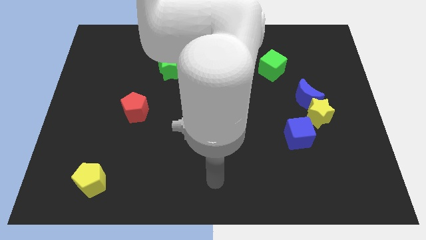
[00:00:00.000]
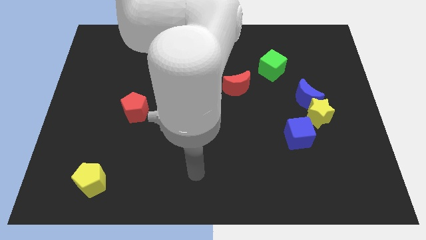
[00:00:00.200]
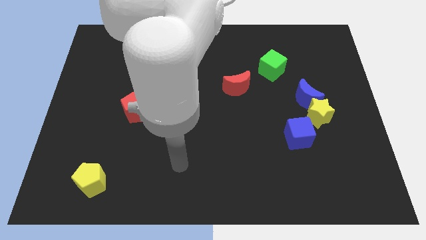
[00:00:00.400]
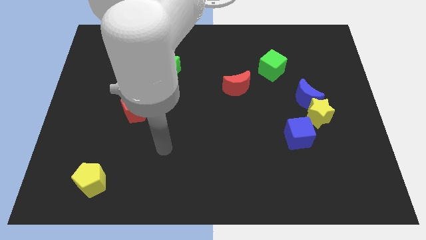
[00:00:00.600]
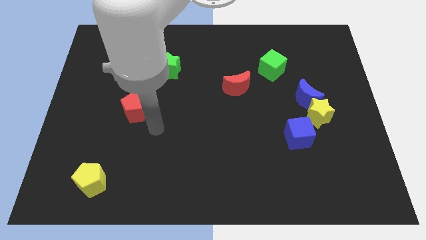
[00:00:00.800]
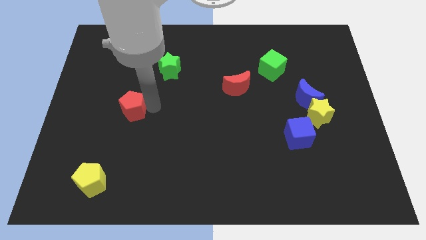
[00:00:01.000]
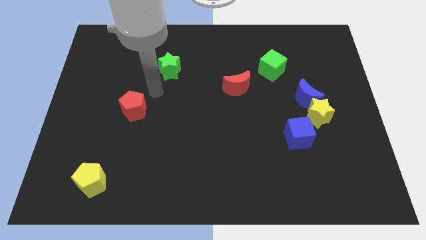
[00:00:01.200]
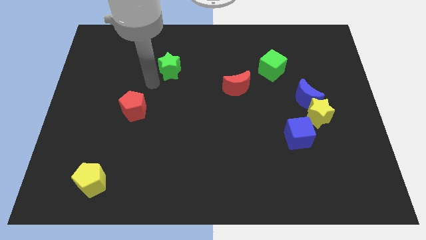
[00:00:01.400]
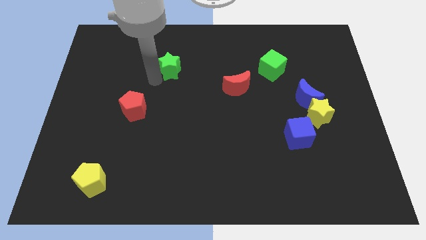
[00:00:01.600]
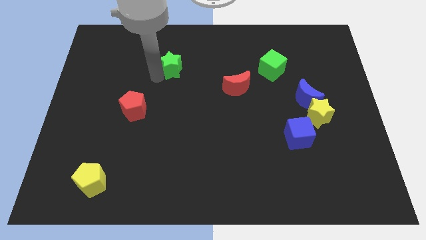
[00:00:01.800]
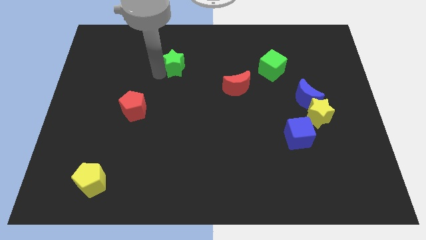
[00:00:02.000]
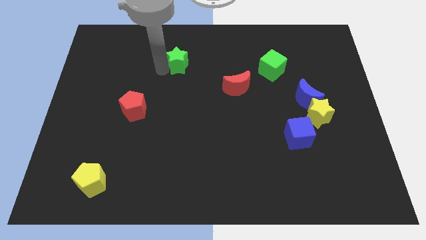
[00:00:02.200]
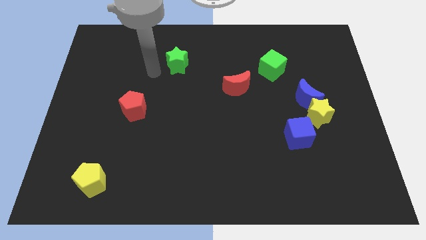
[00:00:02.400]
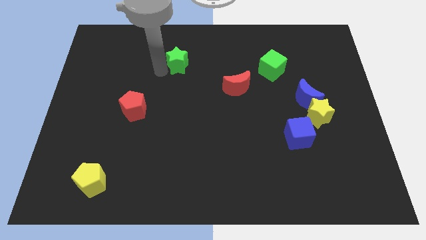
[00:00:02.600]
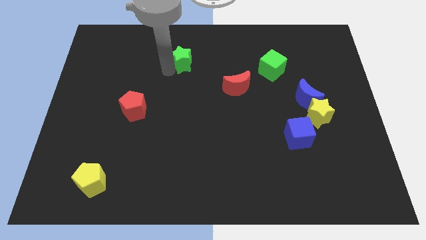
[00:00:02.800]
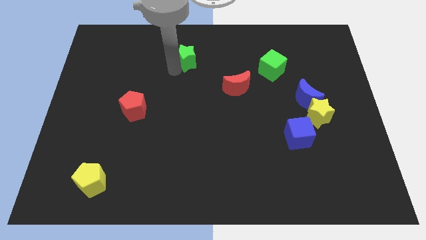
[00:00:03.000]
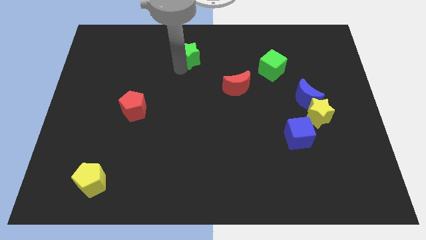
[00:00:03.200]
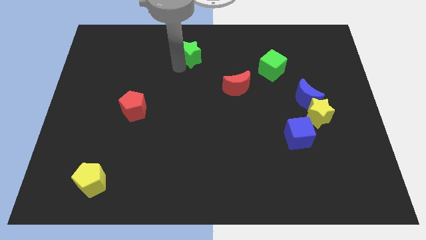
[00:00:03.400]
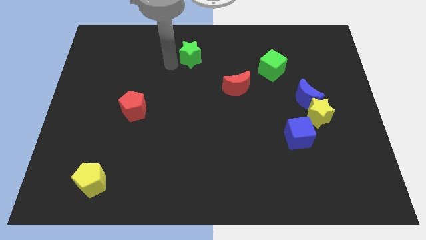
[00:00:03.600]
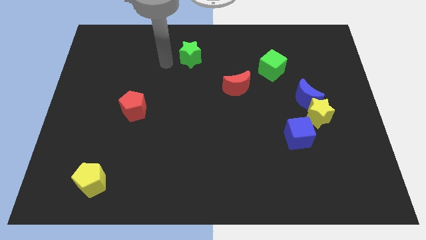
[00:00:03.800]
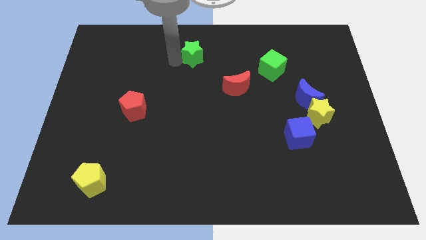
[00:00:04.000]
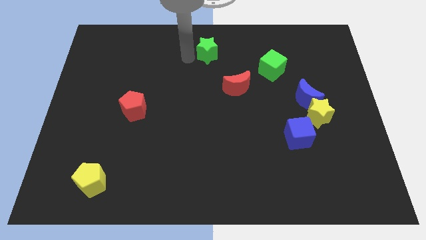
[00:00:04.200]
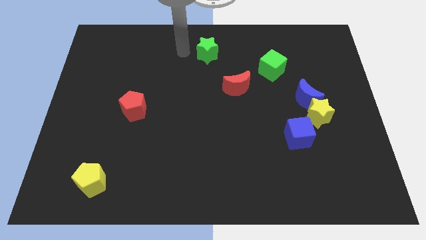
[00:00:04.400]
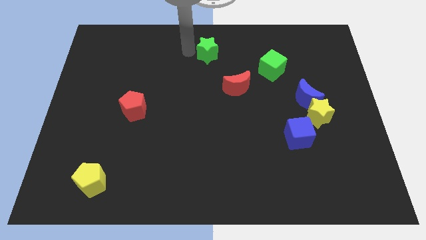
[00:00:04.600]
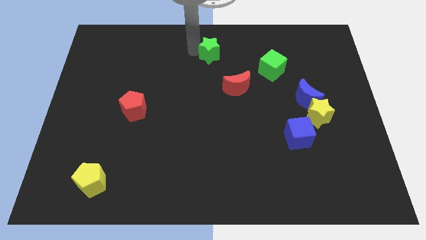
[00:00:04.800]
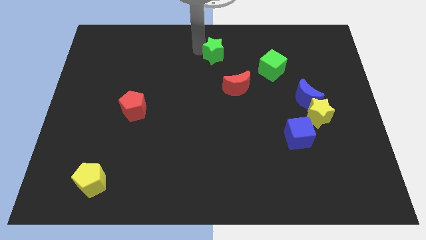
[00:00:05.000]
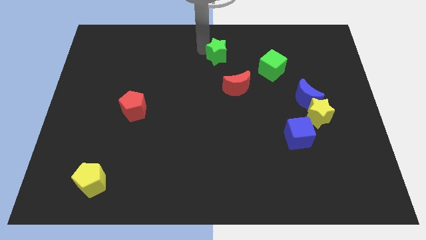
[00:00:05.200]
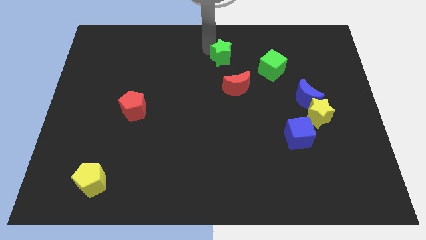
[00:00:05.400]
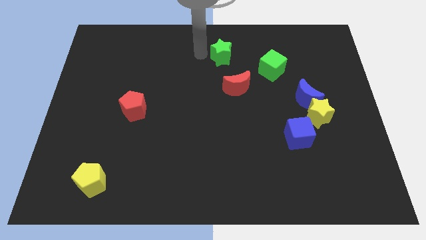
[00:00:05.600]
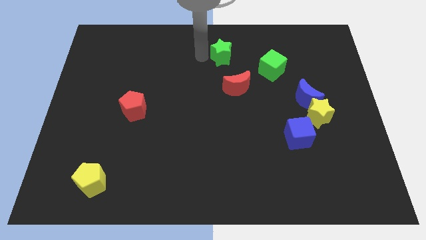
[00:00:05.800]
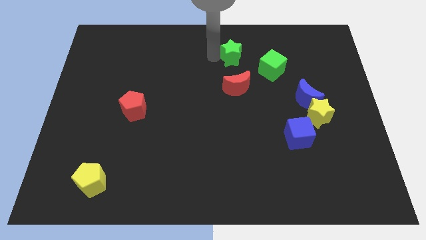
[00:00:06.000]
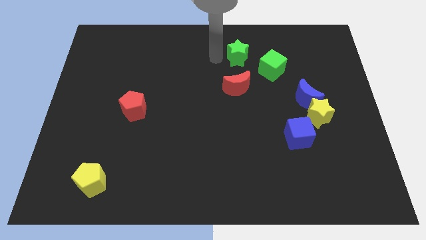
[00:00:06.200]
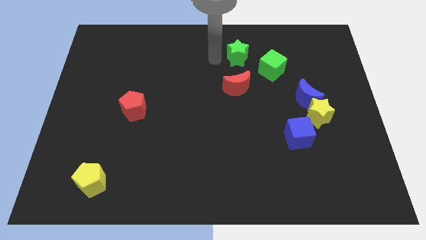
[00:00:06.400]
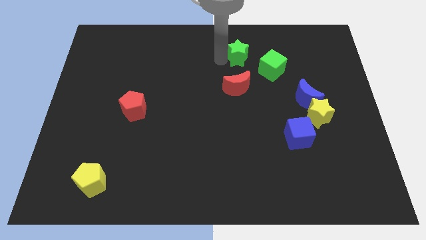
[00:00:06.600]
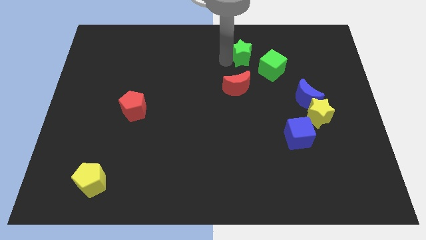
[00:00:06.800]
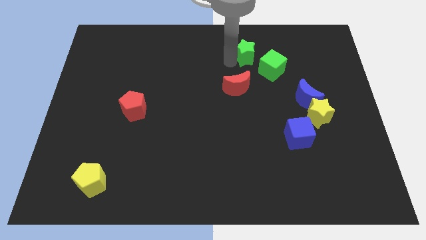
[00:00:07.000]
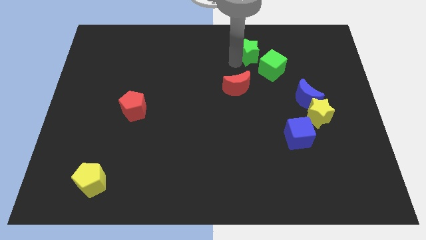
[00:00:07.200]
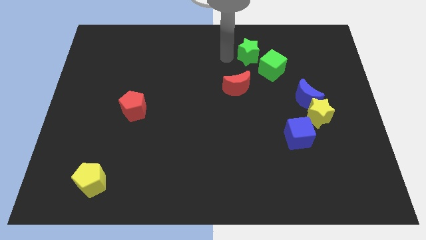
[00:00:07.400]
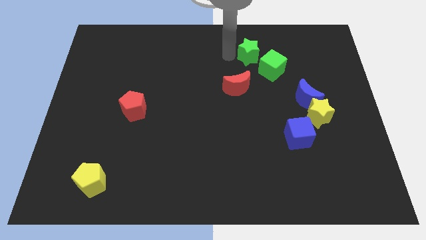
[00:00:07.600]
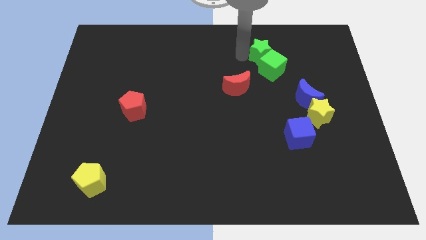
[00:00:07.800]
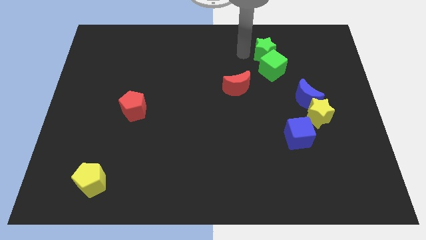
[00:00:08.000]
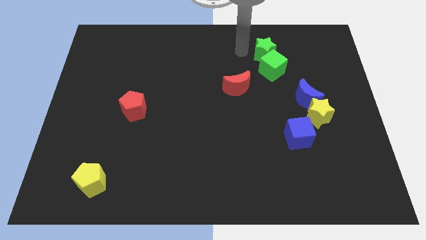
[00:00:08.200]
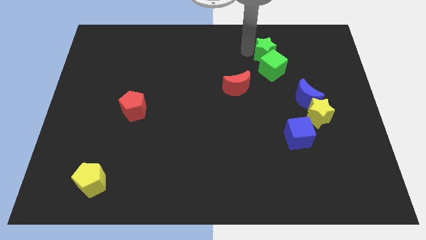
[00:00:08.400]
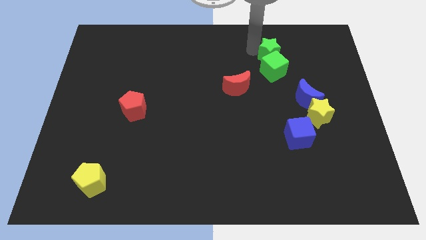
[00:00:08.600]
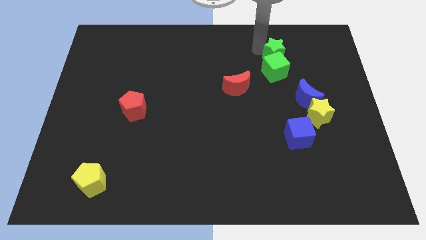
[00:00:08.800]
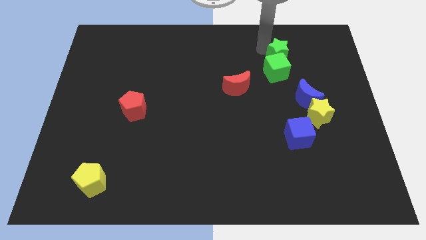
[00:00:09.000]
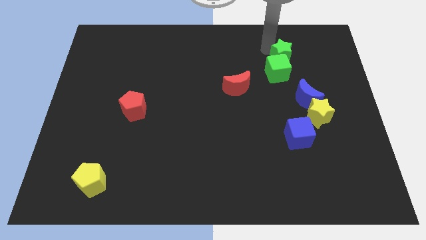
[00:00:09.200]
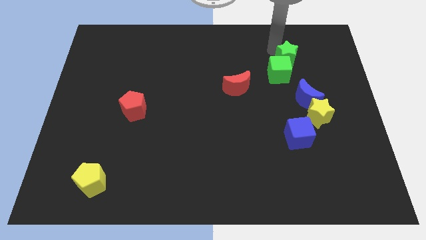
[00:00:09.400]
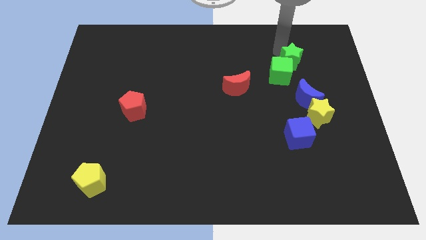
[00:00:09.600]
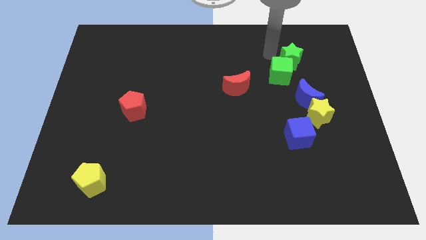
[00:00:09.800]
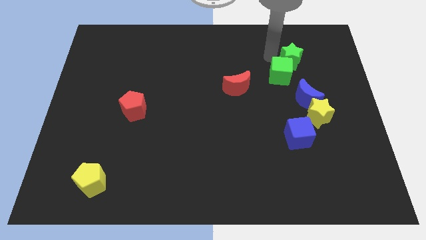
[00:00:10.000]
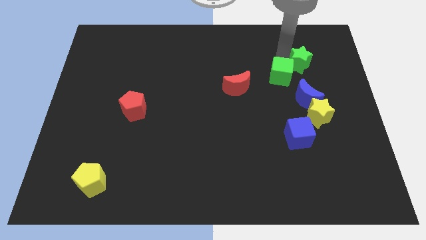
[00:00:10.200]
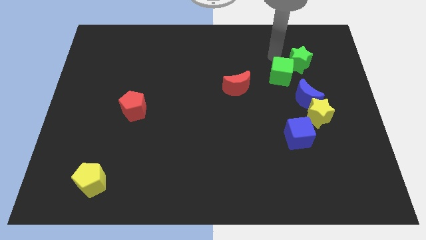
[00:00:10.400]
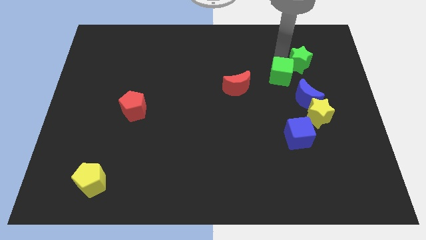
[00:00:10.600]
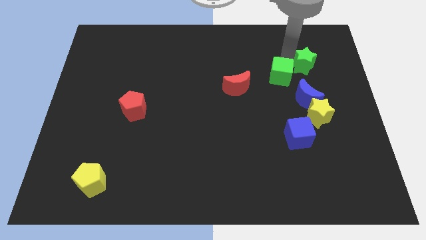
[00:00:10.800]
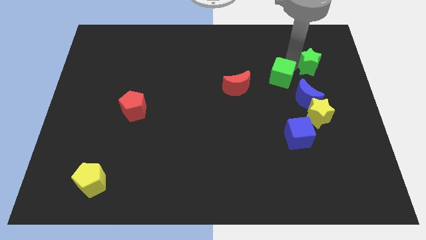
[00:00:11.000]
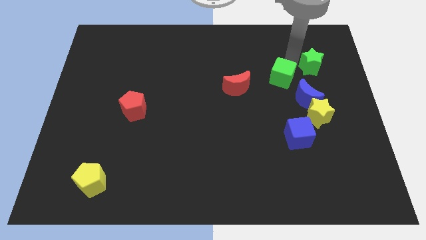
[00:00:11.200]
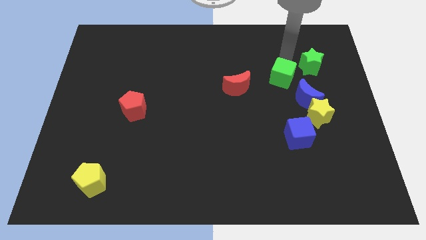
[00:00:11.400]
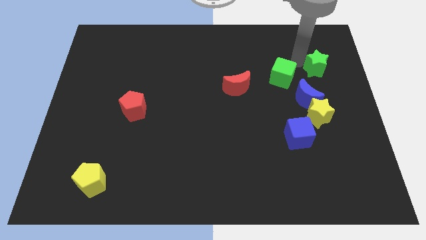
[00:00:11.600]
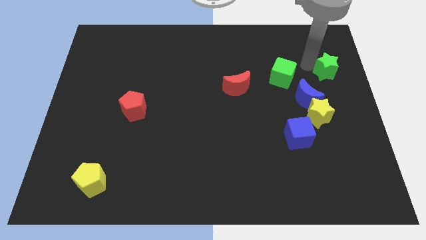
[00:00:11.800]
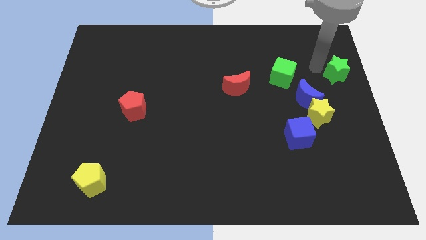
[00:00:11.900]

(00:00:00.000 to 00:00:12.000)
move the green star to the center right
